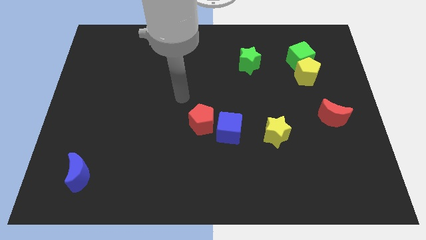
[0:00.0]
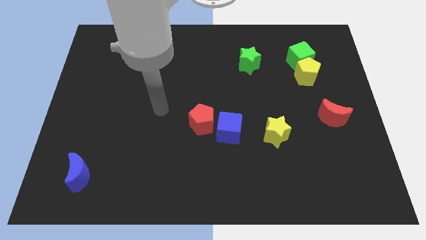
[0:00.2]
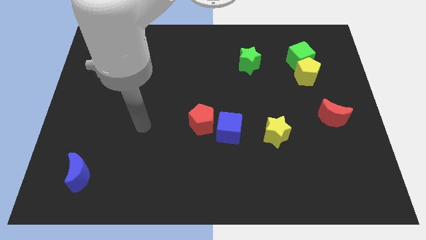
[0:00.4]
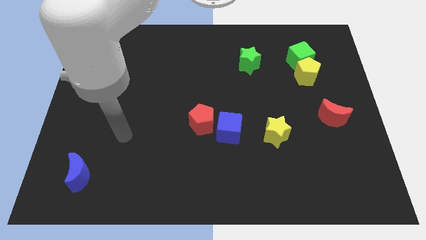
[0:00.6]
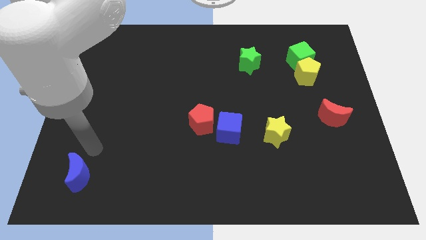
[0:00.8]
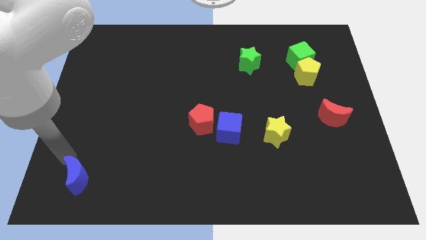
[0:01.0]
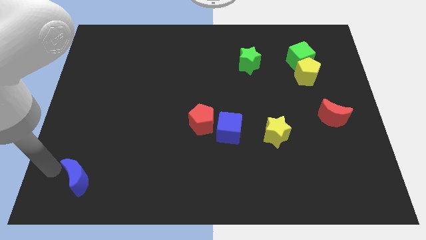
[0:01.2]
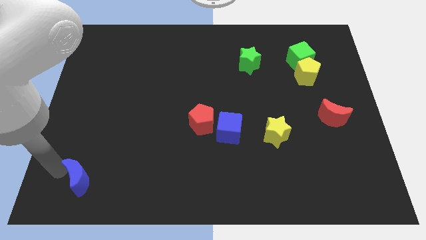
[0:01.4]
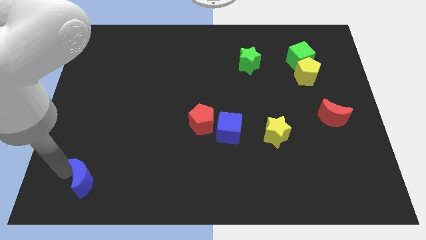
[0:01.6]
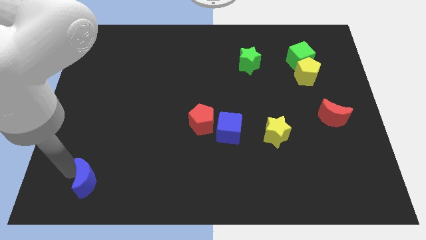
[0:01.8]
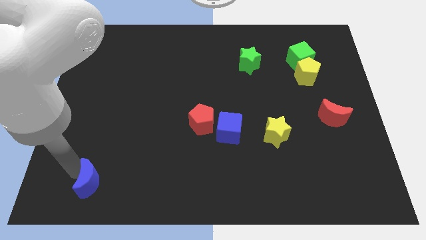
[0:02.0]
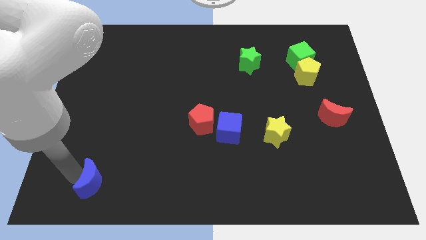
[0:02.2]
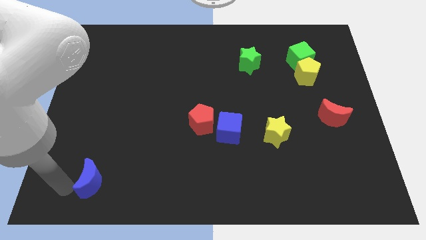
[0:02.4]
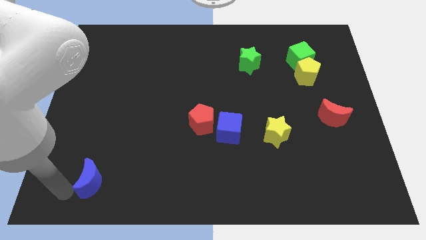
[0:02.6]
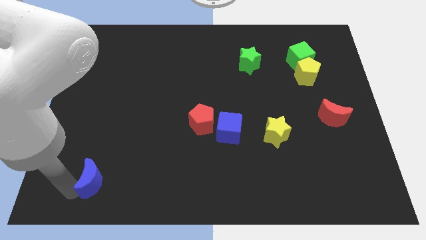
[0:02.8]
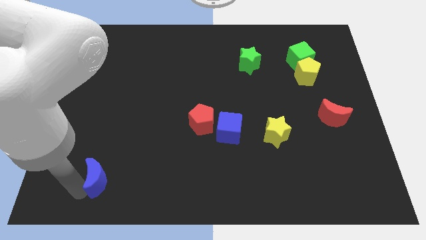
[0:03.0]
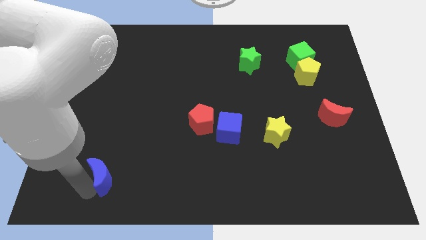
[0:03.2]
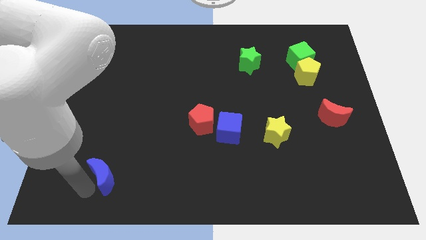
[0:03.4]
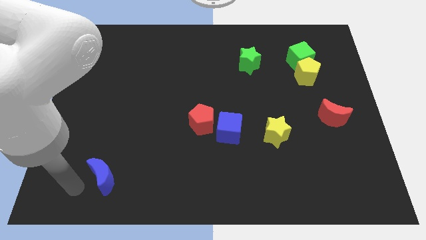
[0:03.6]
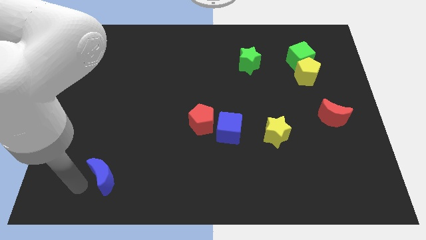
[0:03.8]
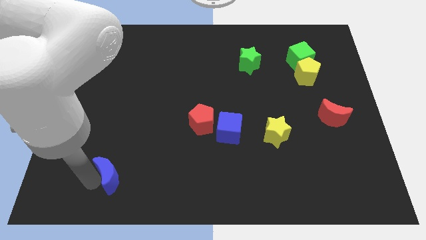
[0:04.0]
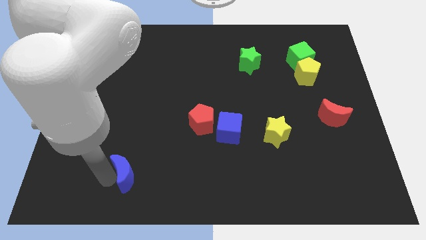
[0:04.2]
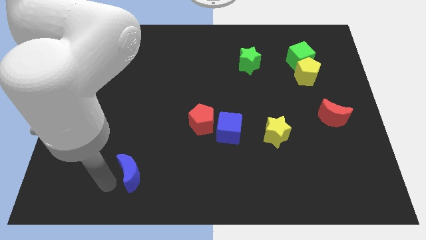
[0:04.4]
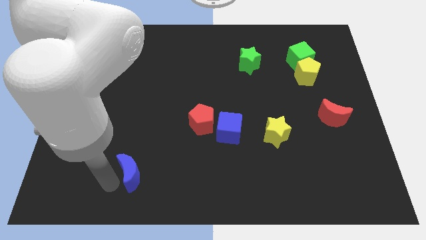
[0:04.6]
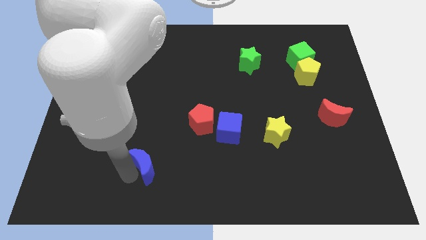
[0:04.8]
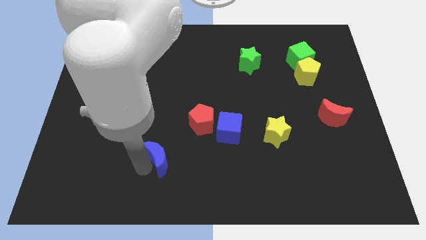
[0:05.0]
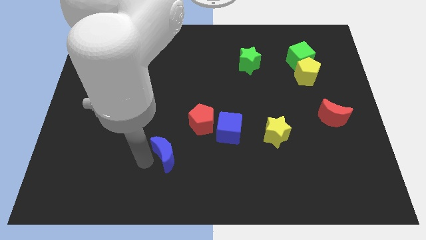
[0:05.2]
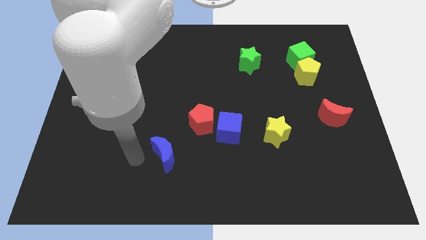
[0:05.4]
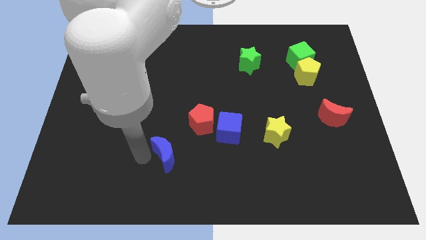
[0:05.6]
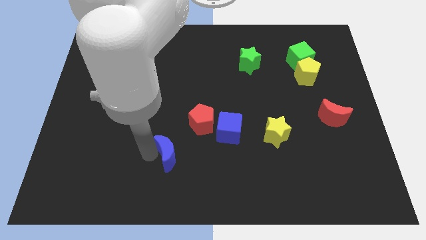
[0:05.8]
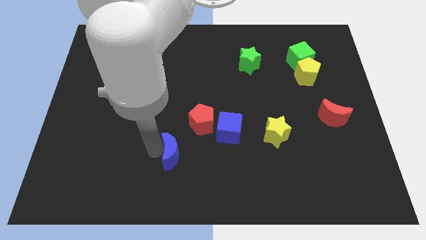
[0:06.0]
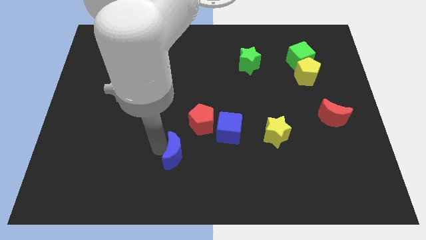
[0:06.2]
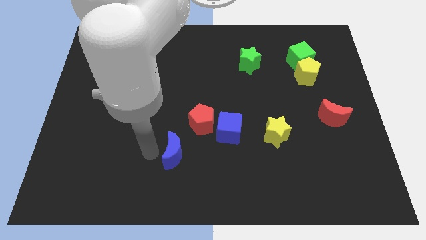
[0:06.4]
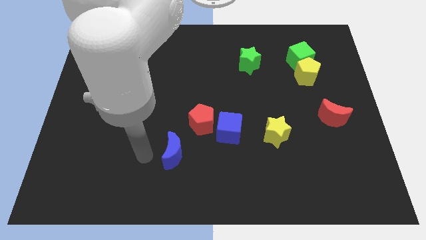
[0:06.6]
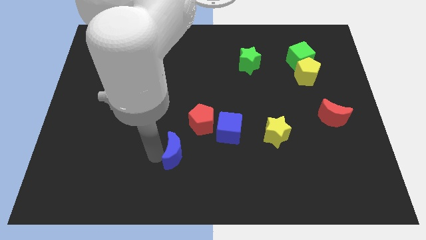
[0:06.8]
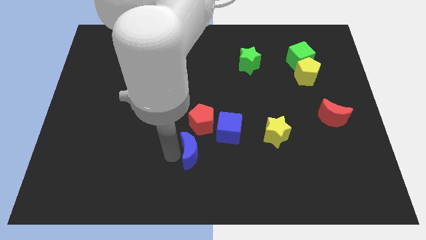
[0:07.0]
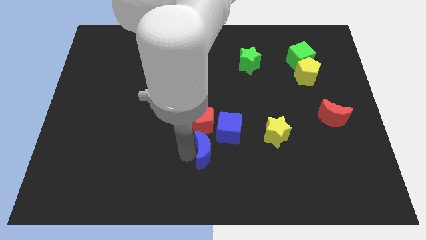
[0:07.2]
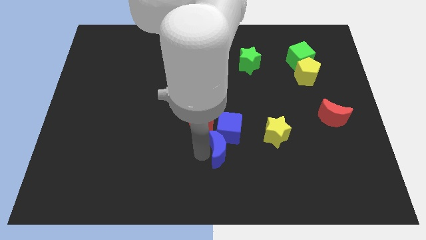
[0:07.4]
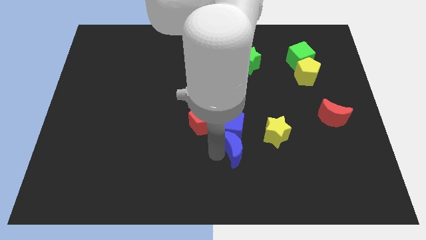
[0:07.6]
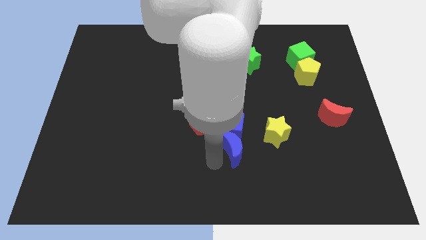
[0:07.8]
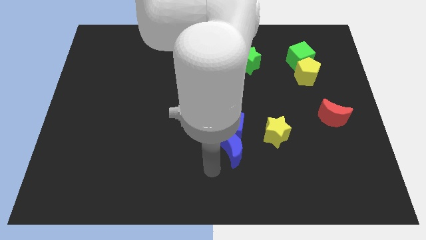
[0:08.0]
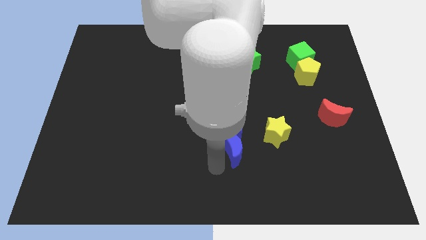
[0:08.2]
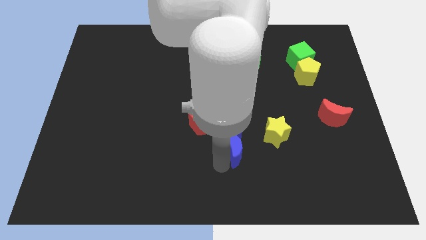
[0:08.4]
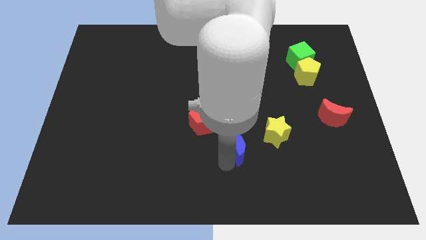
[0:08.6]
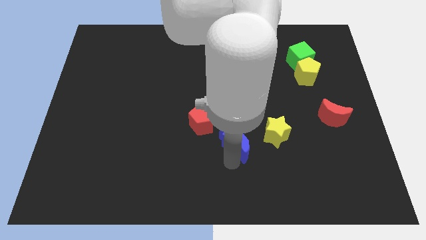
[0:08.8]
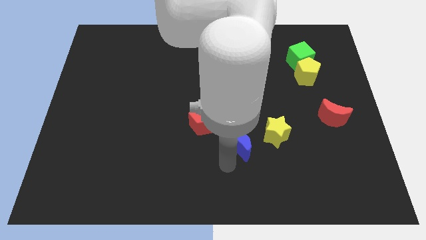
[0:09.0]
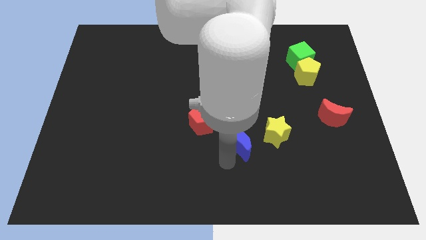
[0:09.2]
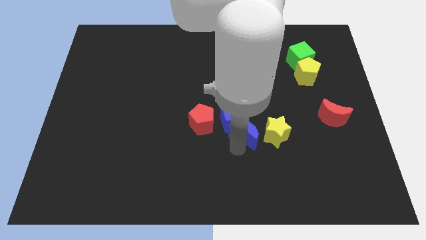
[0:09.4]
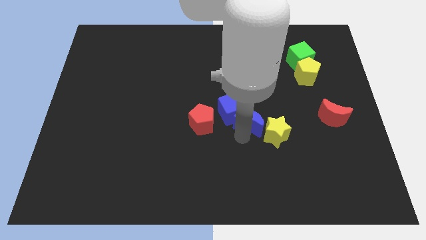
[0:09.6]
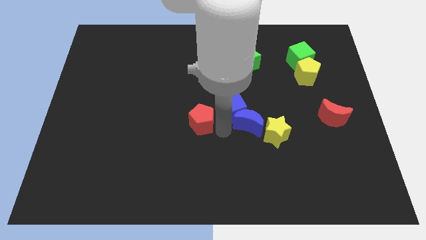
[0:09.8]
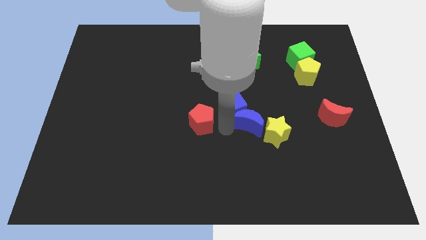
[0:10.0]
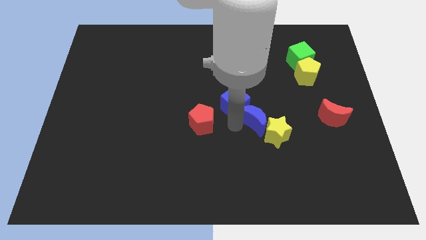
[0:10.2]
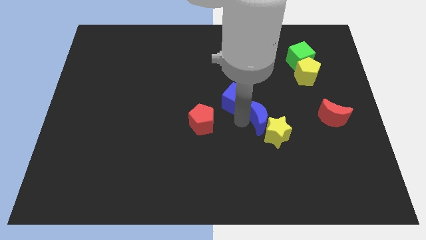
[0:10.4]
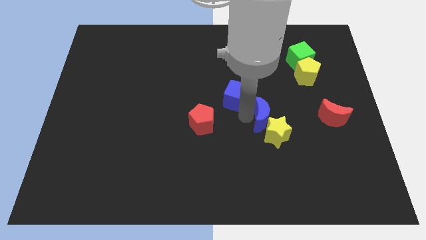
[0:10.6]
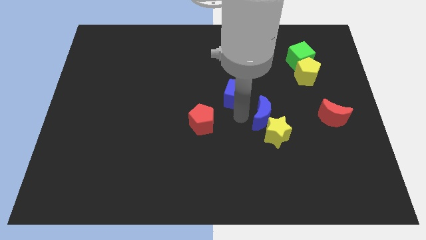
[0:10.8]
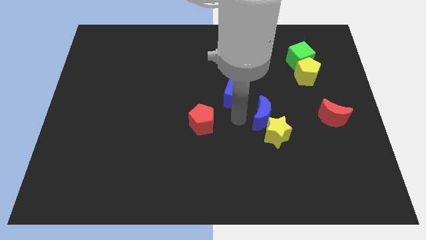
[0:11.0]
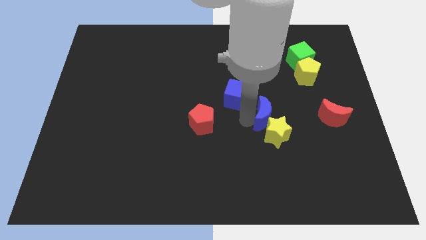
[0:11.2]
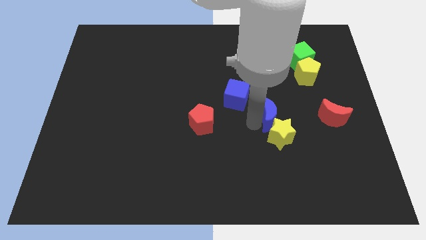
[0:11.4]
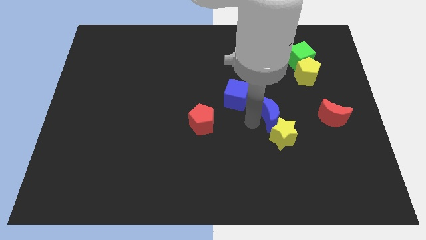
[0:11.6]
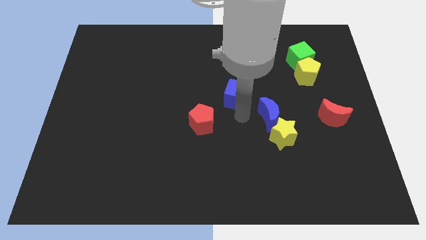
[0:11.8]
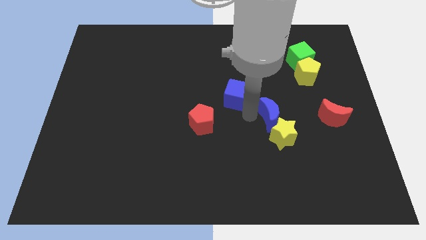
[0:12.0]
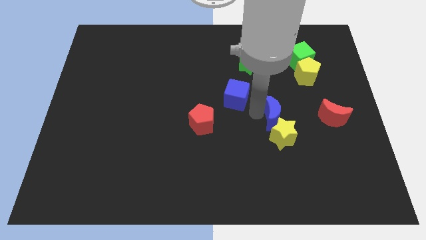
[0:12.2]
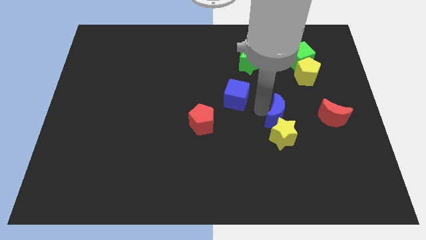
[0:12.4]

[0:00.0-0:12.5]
slide the blue moon to the top right side of the yellow star
